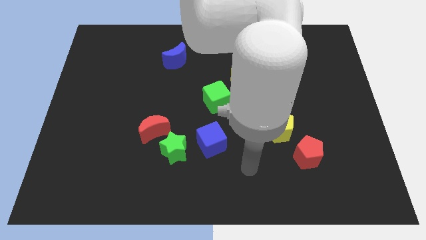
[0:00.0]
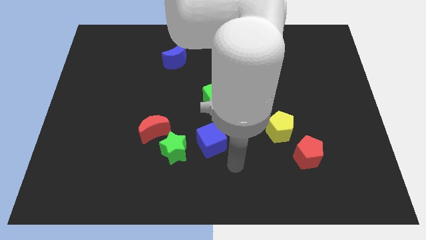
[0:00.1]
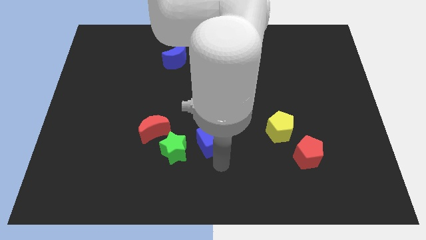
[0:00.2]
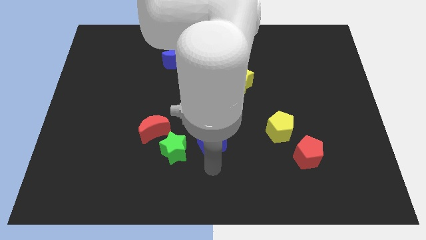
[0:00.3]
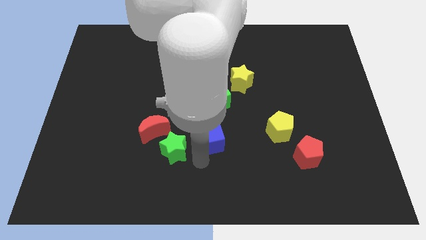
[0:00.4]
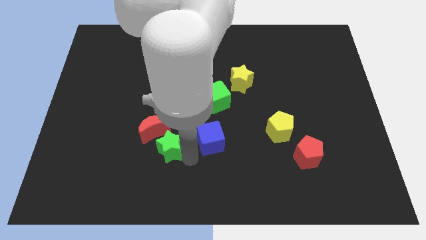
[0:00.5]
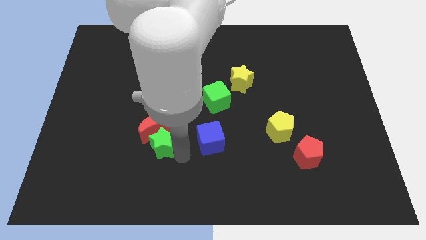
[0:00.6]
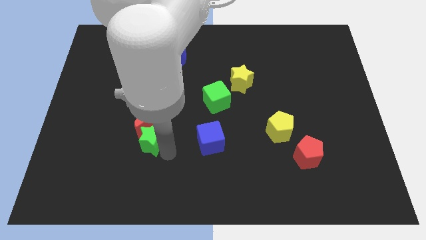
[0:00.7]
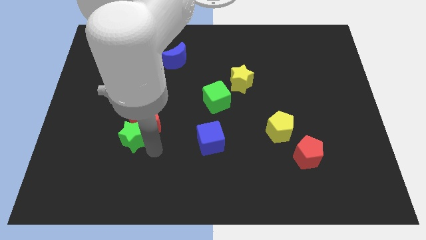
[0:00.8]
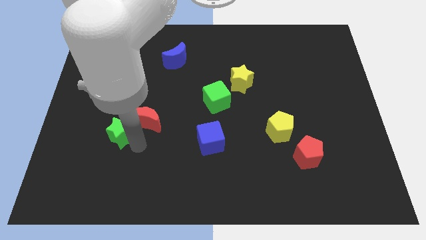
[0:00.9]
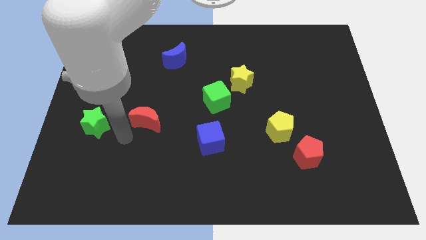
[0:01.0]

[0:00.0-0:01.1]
separate the red moon from the green star

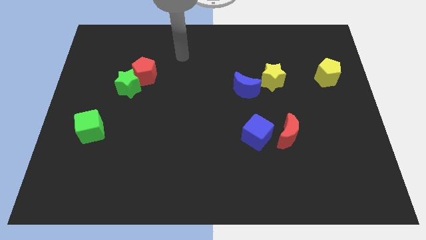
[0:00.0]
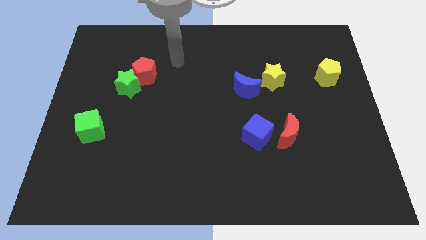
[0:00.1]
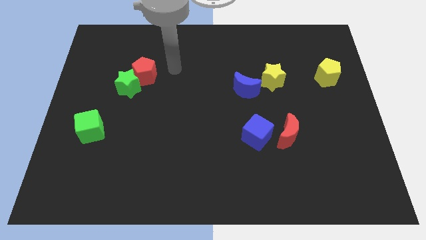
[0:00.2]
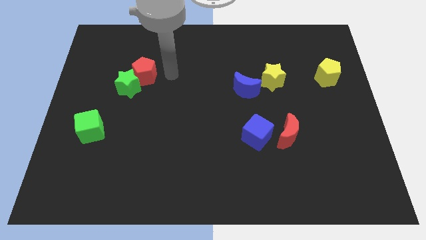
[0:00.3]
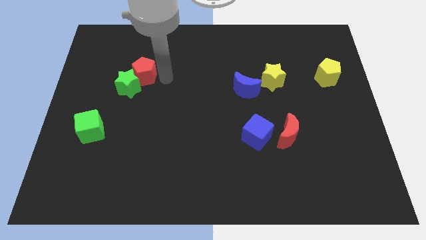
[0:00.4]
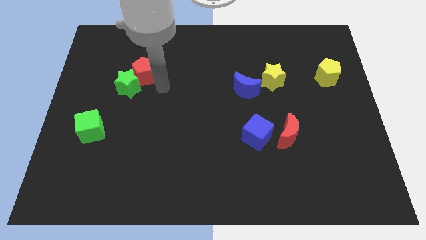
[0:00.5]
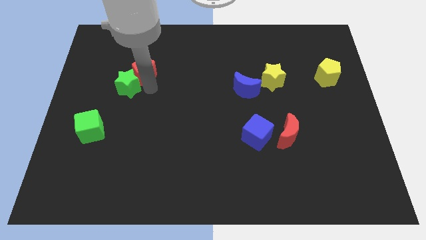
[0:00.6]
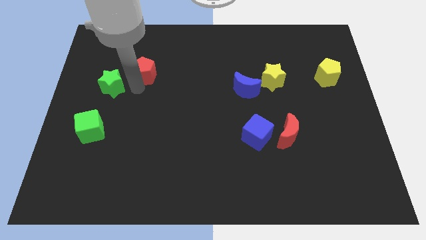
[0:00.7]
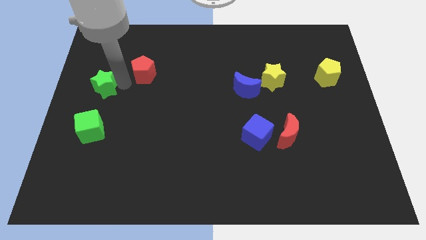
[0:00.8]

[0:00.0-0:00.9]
pull the red pentagon apart from the green star

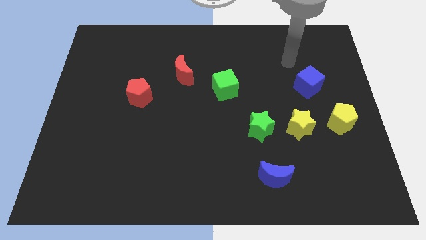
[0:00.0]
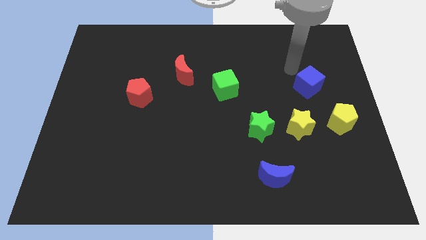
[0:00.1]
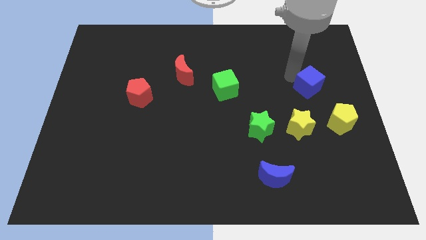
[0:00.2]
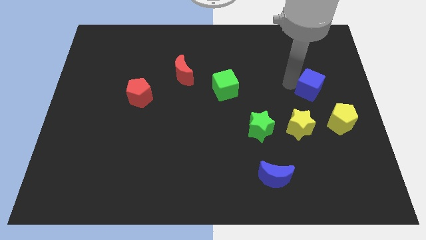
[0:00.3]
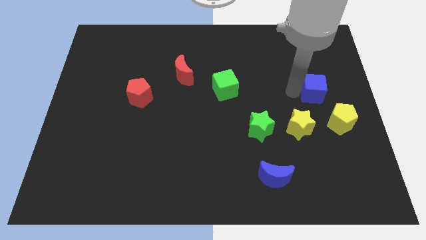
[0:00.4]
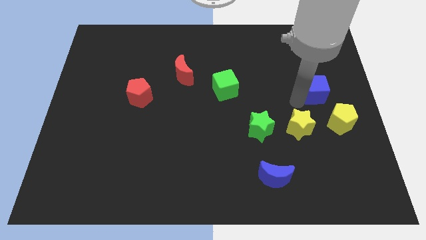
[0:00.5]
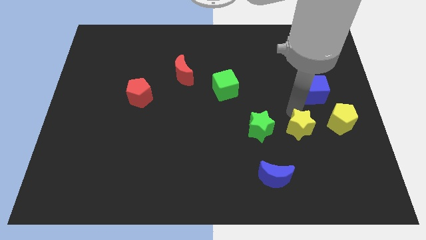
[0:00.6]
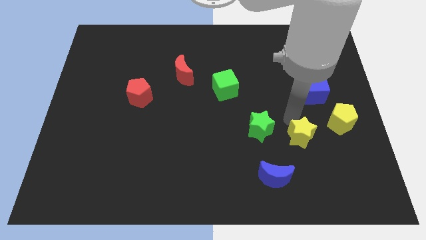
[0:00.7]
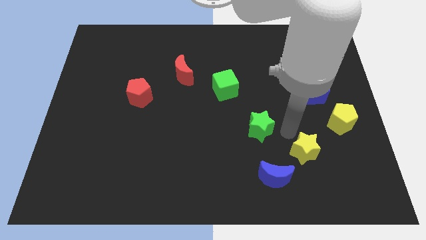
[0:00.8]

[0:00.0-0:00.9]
separate the green star from the yellow star

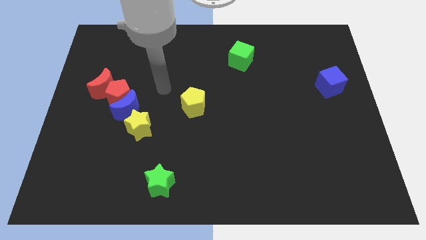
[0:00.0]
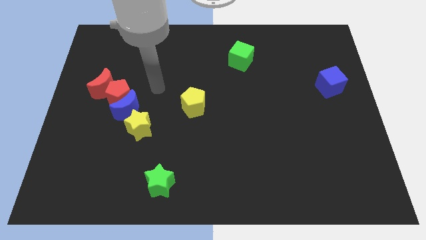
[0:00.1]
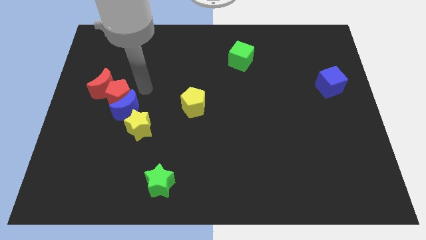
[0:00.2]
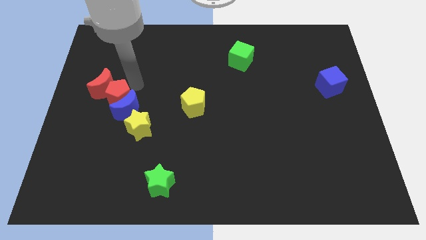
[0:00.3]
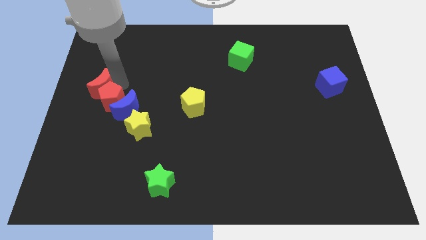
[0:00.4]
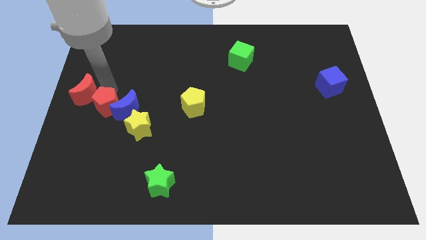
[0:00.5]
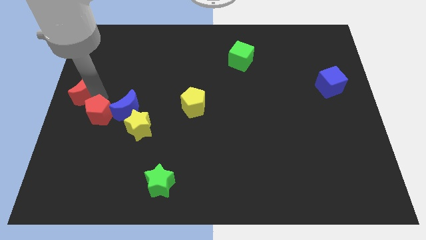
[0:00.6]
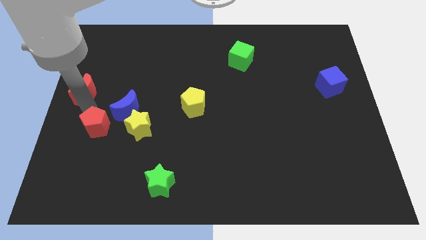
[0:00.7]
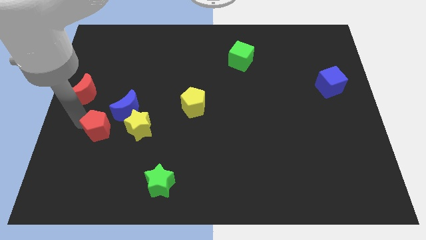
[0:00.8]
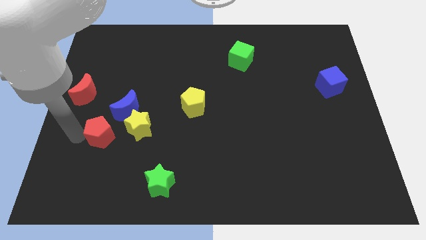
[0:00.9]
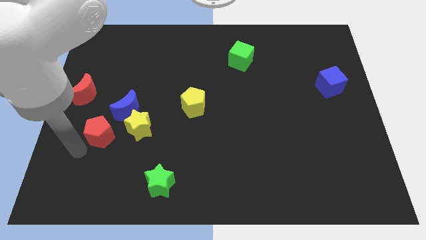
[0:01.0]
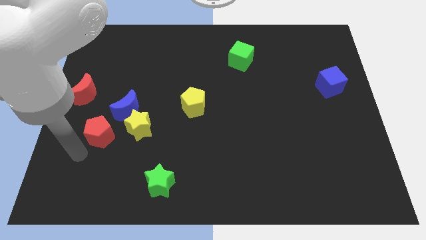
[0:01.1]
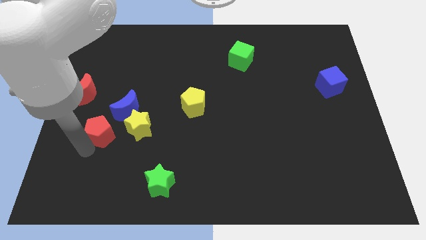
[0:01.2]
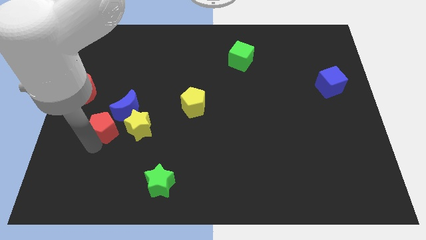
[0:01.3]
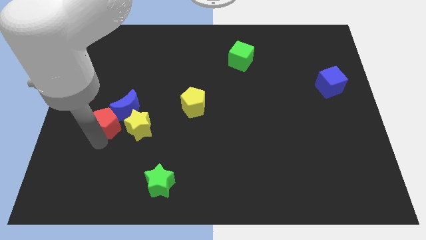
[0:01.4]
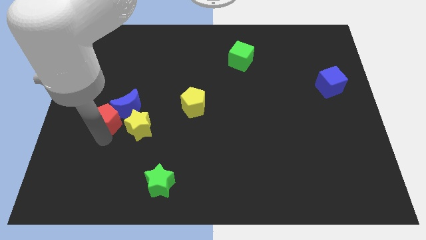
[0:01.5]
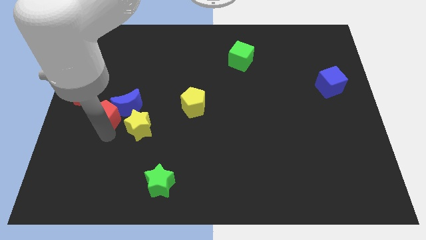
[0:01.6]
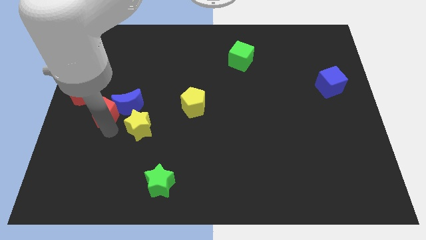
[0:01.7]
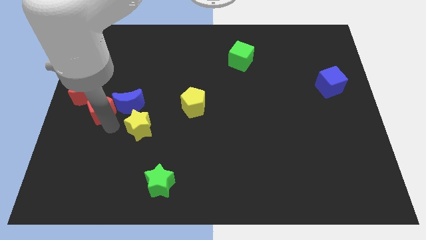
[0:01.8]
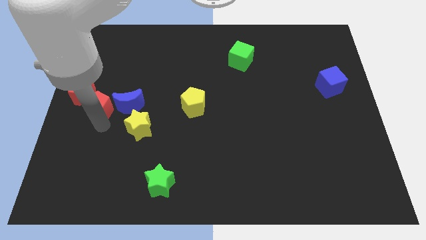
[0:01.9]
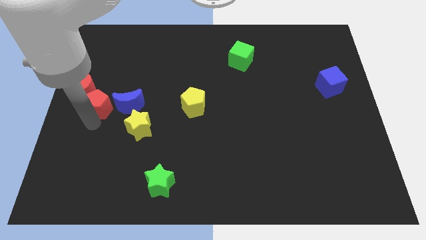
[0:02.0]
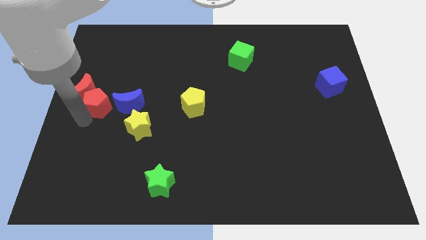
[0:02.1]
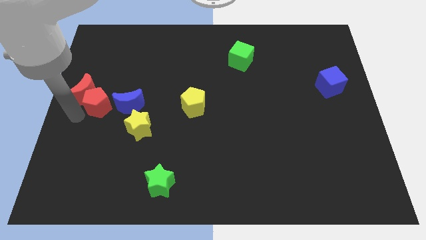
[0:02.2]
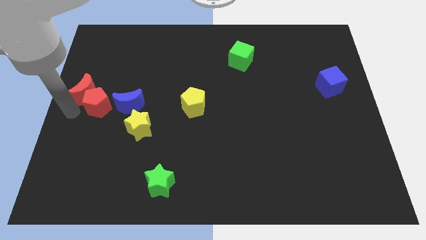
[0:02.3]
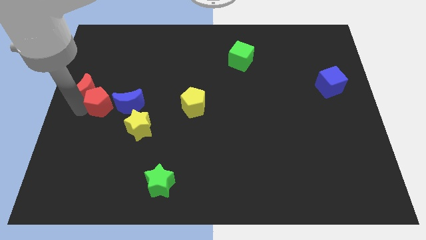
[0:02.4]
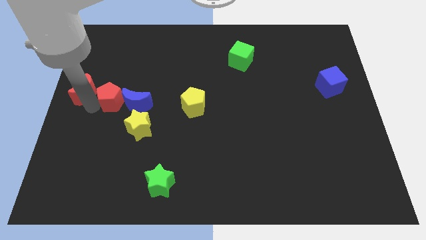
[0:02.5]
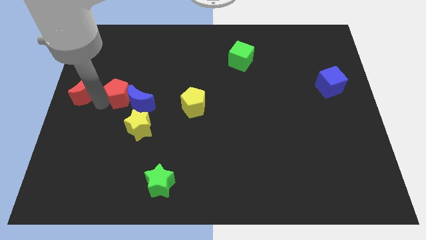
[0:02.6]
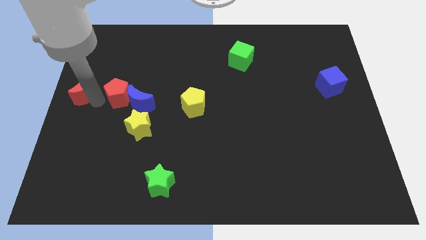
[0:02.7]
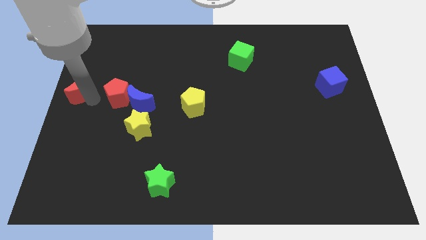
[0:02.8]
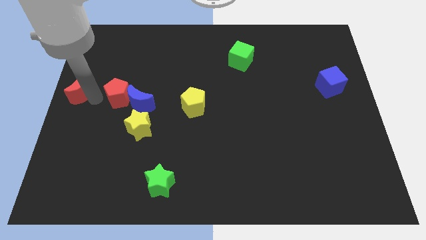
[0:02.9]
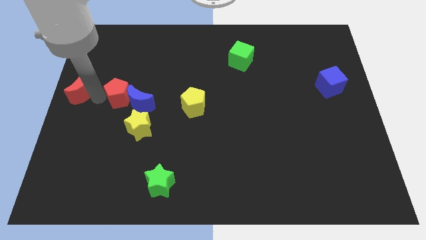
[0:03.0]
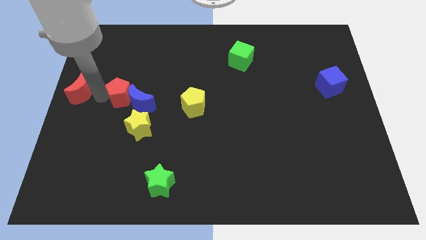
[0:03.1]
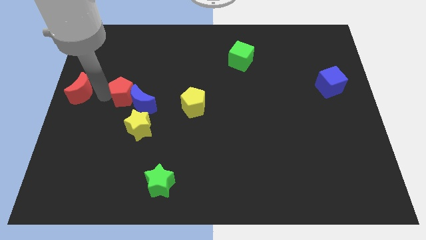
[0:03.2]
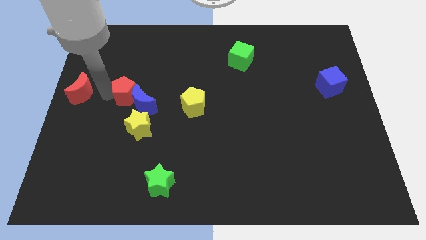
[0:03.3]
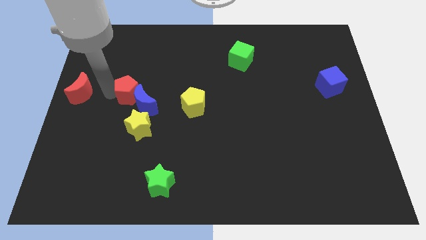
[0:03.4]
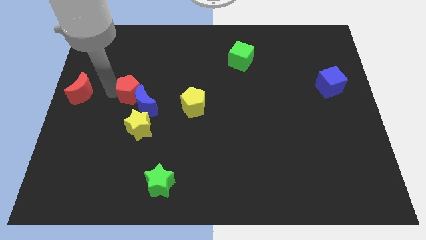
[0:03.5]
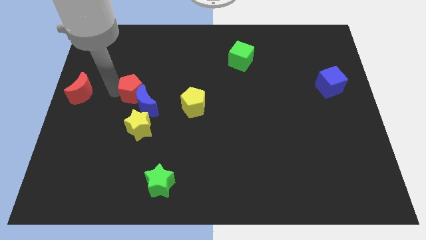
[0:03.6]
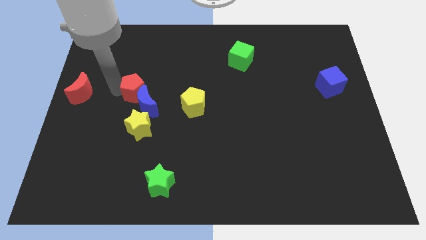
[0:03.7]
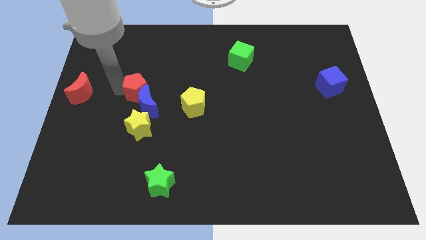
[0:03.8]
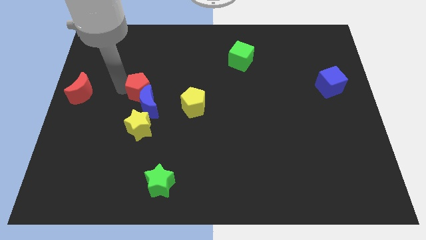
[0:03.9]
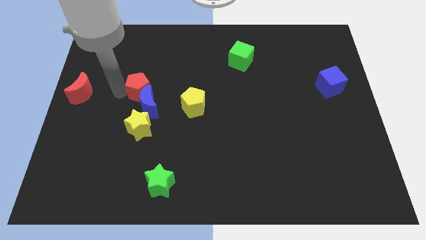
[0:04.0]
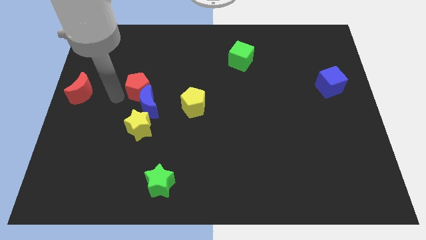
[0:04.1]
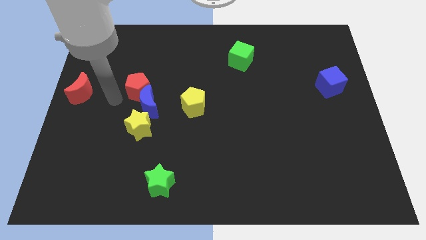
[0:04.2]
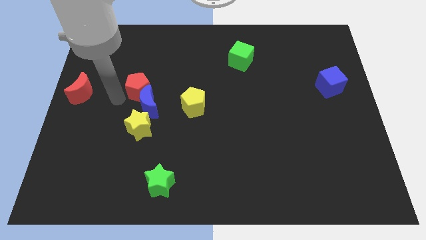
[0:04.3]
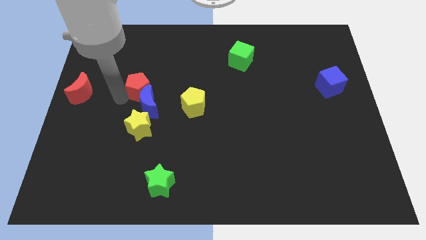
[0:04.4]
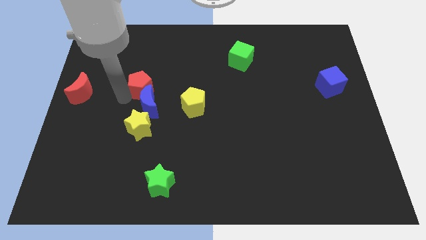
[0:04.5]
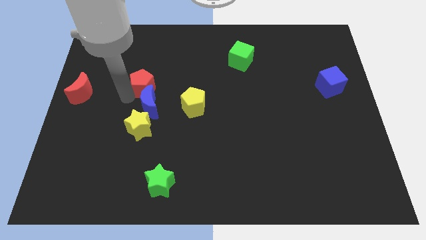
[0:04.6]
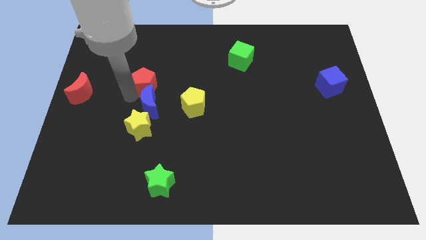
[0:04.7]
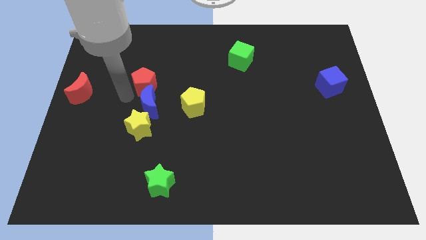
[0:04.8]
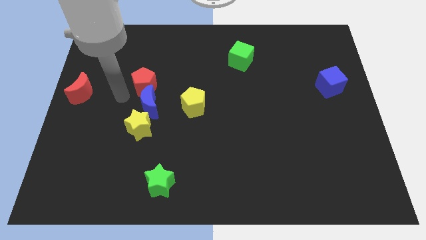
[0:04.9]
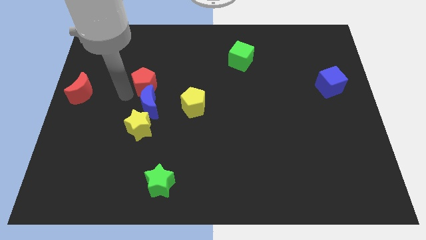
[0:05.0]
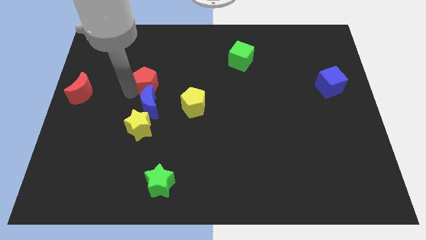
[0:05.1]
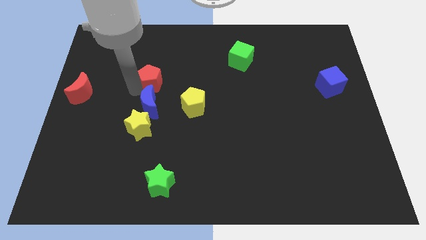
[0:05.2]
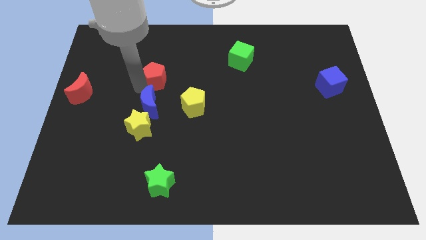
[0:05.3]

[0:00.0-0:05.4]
move the red pentagon away from the blue moon and red moon

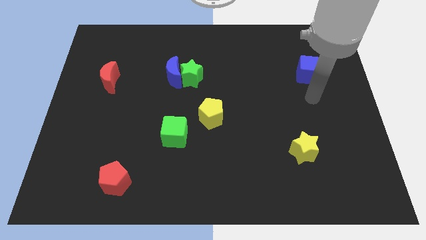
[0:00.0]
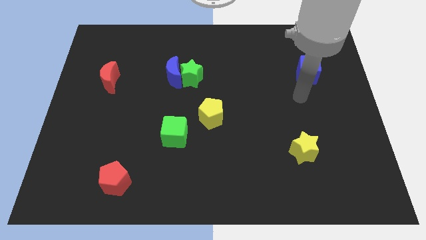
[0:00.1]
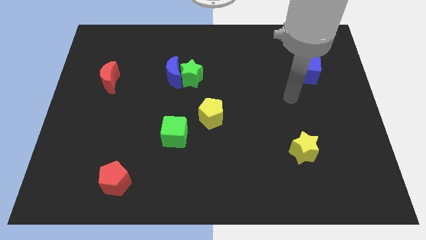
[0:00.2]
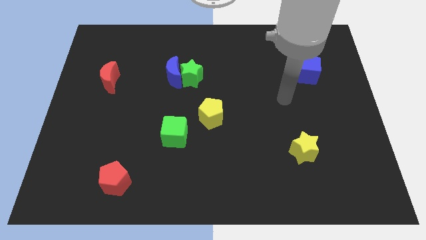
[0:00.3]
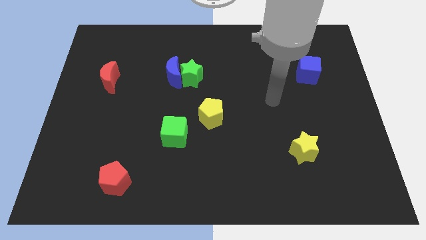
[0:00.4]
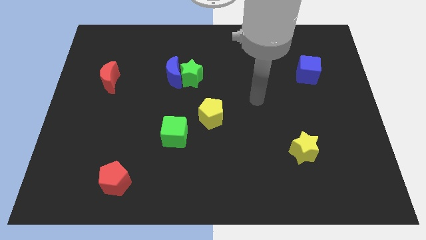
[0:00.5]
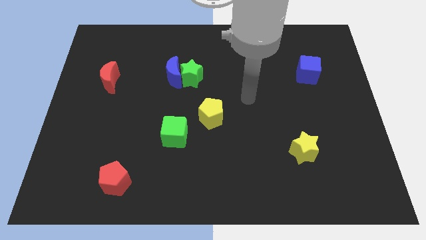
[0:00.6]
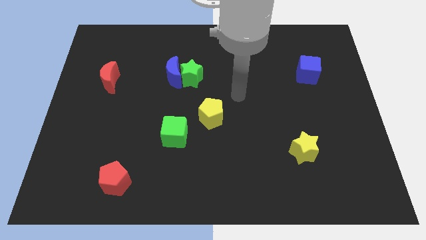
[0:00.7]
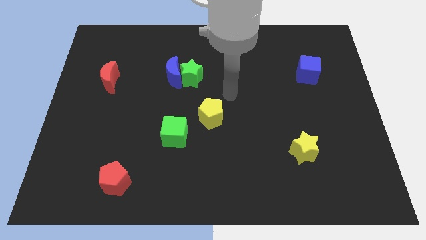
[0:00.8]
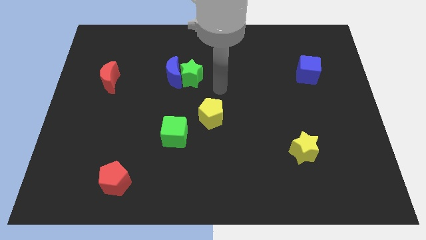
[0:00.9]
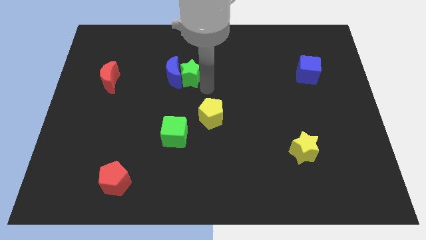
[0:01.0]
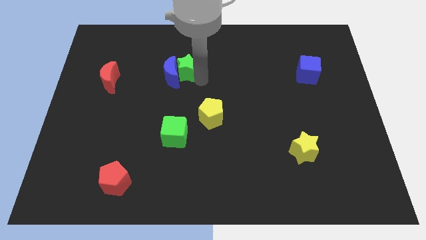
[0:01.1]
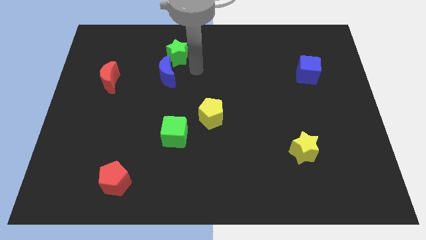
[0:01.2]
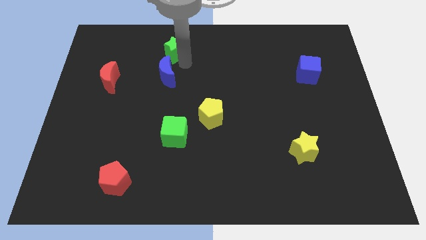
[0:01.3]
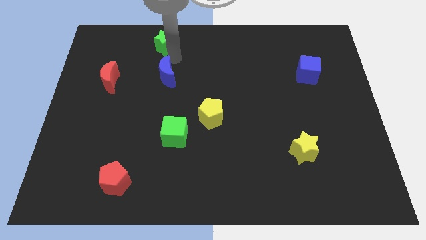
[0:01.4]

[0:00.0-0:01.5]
move the blue moon away from the green star
